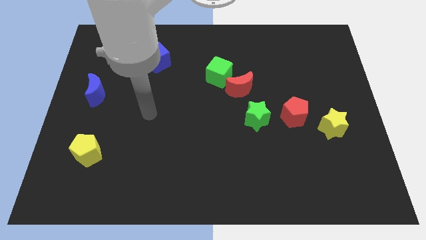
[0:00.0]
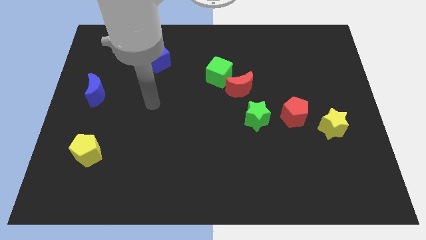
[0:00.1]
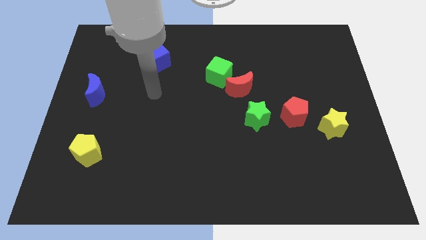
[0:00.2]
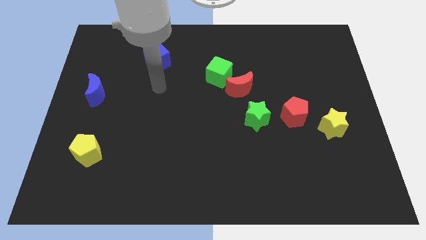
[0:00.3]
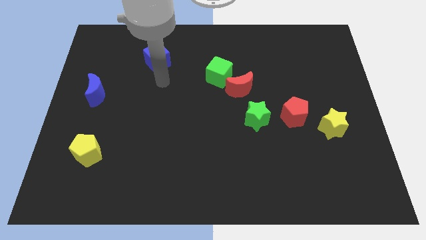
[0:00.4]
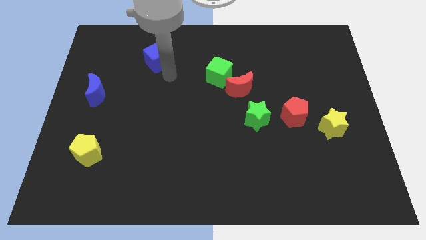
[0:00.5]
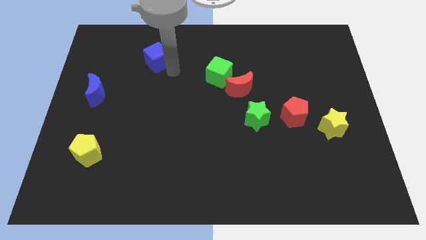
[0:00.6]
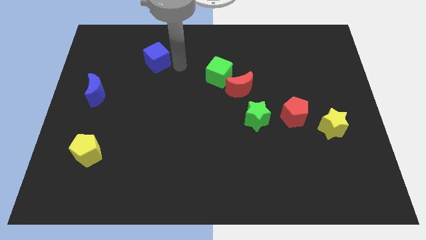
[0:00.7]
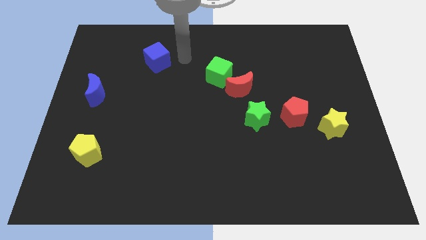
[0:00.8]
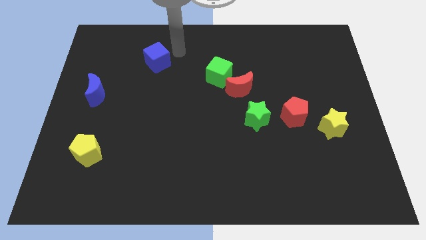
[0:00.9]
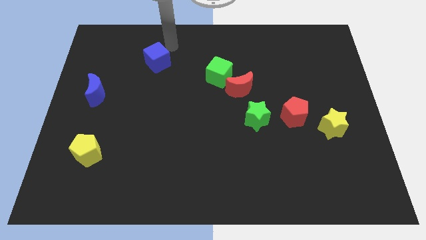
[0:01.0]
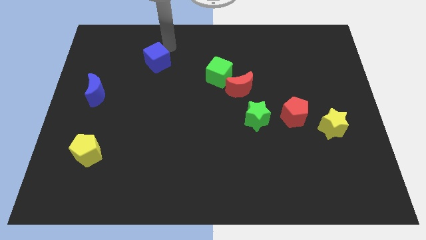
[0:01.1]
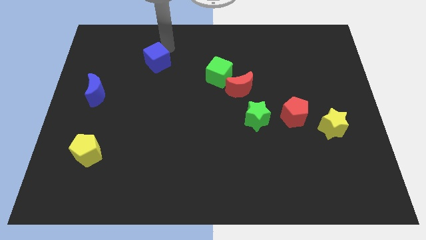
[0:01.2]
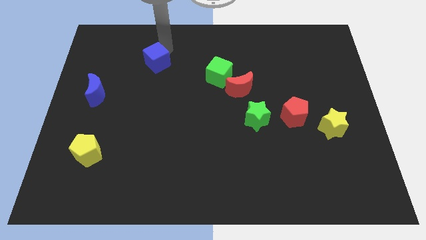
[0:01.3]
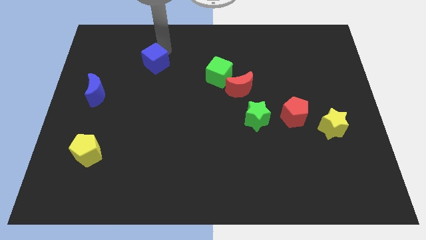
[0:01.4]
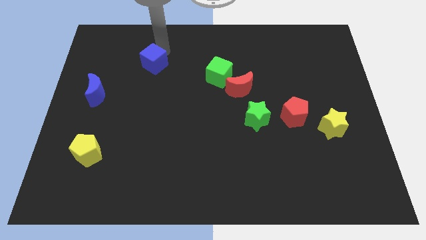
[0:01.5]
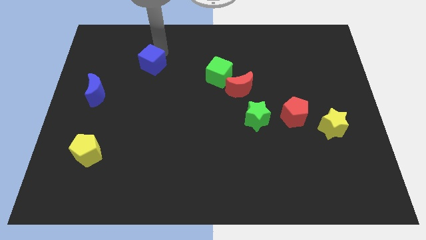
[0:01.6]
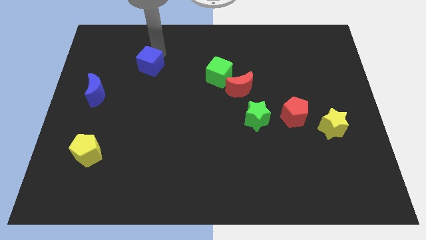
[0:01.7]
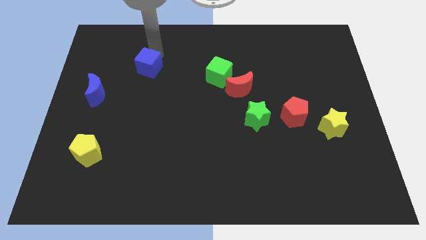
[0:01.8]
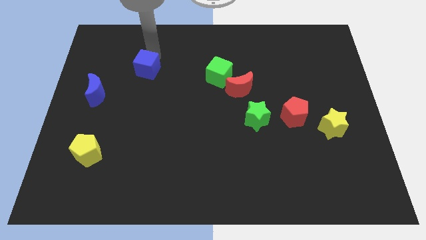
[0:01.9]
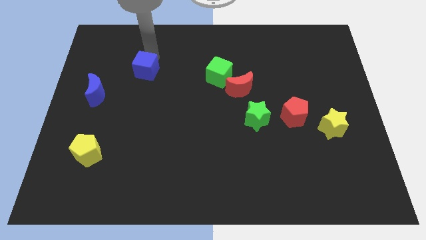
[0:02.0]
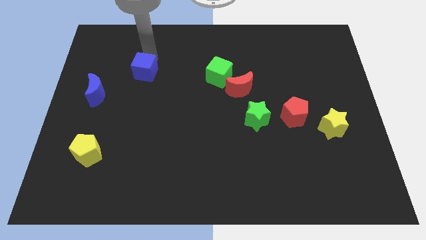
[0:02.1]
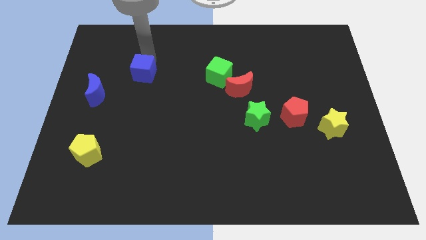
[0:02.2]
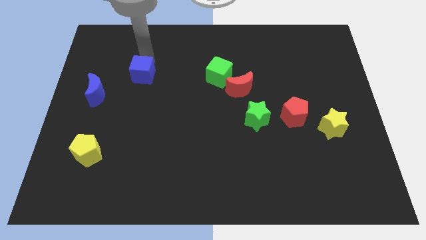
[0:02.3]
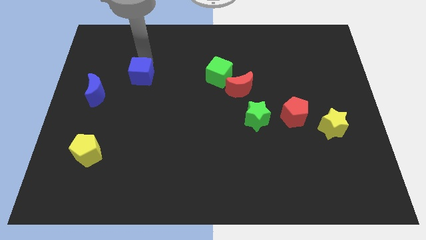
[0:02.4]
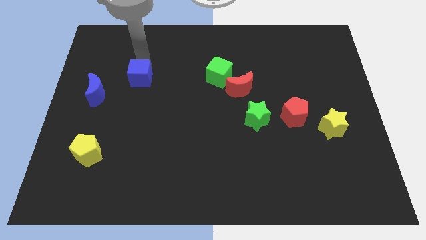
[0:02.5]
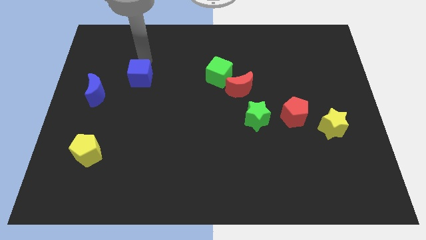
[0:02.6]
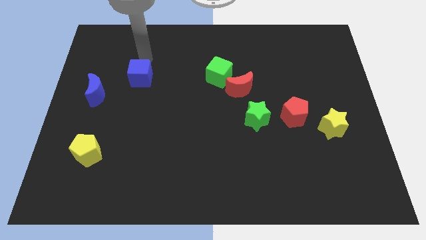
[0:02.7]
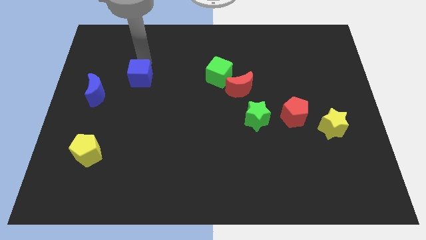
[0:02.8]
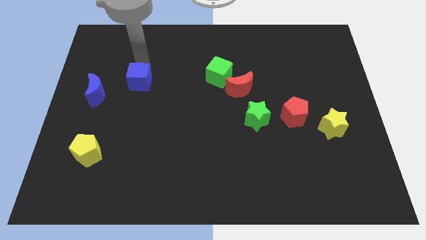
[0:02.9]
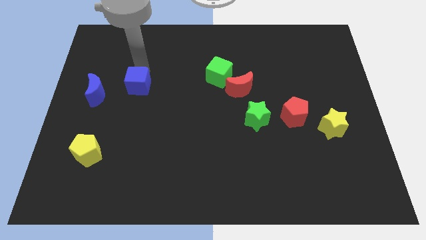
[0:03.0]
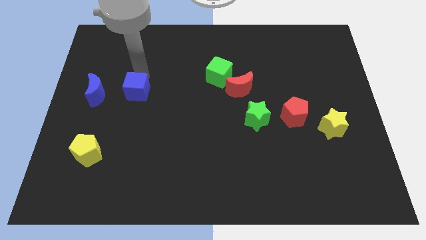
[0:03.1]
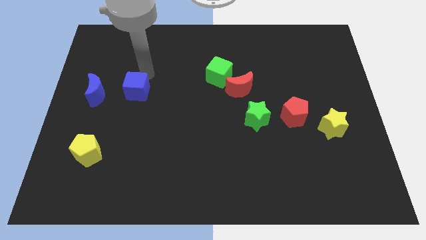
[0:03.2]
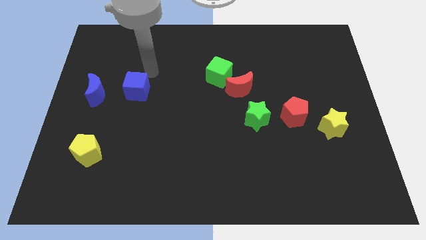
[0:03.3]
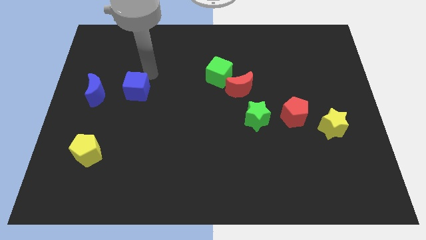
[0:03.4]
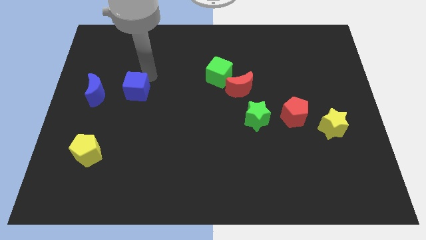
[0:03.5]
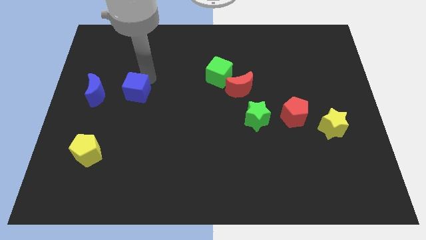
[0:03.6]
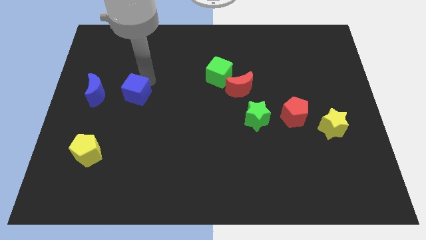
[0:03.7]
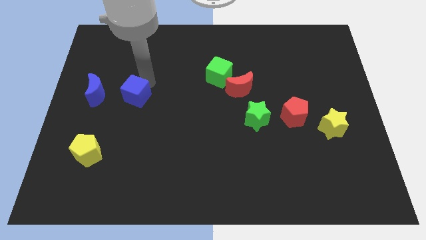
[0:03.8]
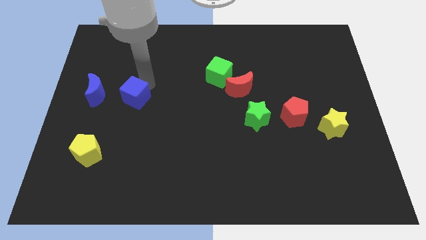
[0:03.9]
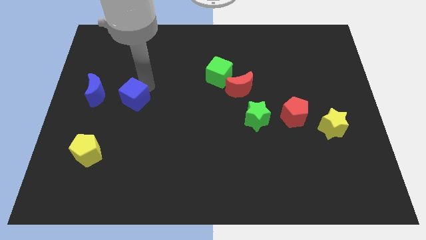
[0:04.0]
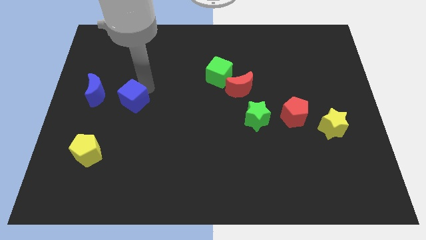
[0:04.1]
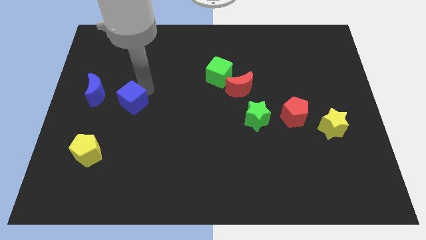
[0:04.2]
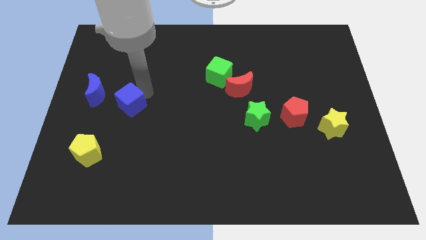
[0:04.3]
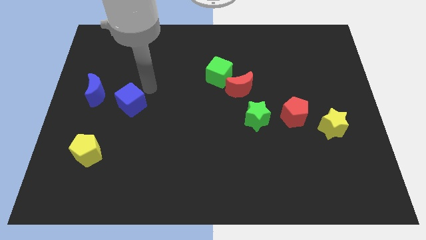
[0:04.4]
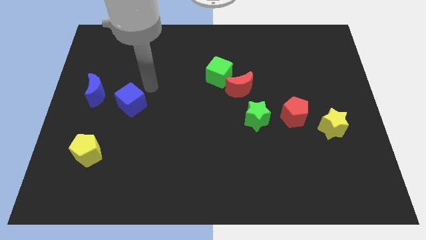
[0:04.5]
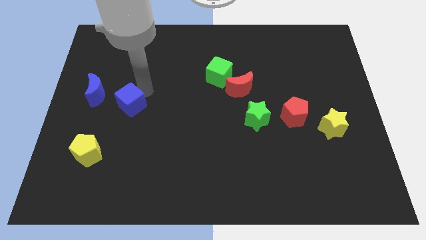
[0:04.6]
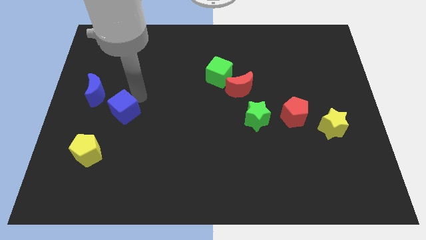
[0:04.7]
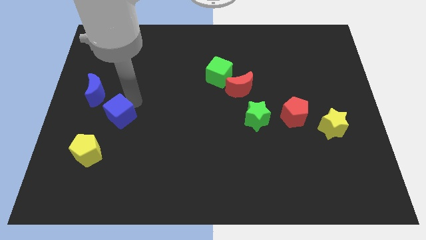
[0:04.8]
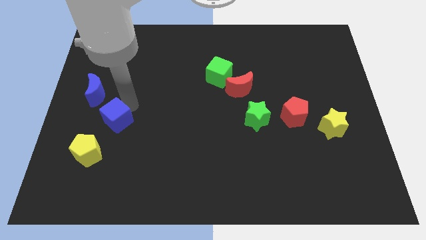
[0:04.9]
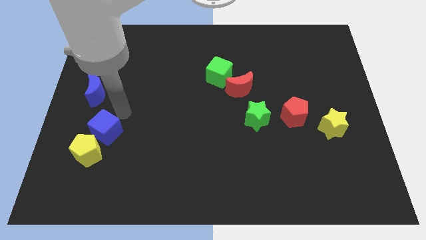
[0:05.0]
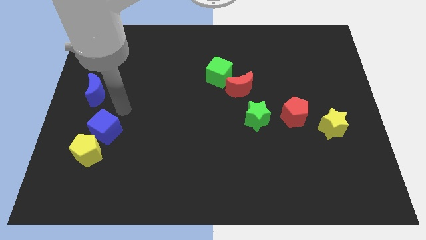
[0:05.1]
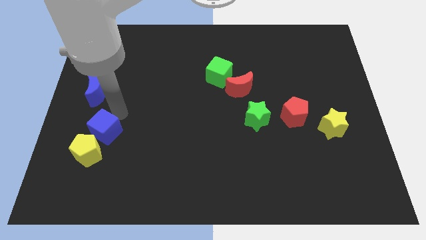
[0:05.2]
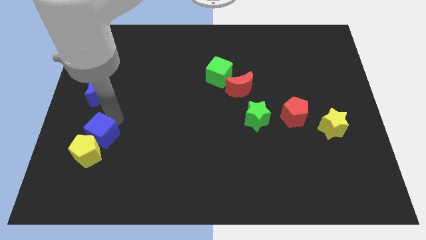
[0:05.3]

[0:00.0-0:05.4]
slide the blue cube next to the yellow pentagon

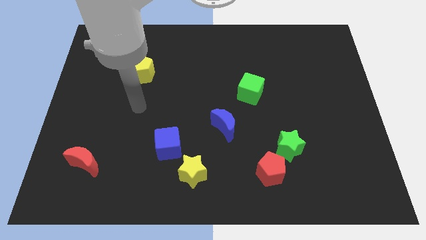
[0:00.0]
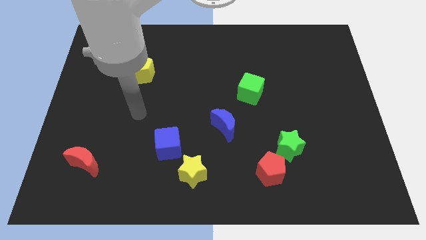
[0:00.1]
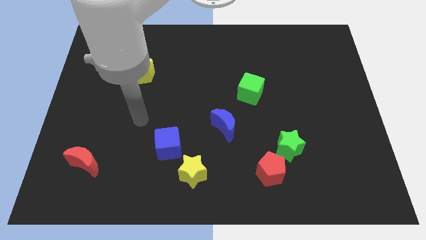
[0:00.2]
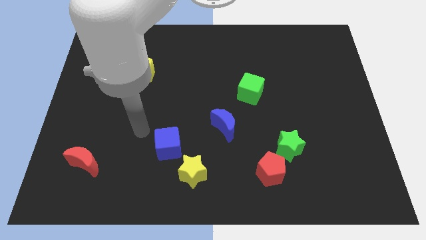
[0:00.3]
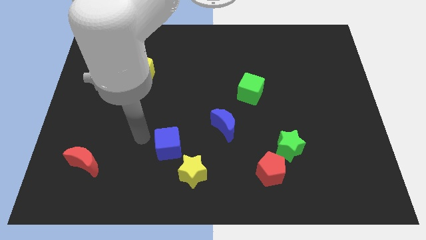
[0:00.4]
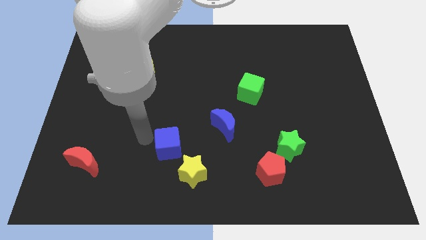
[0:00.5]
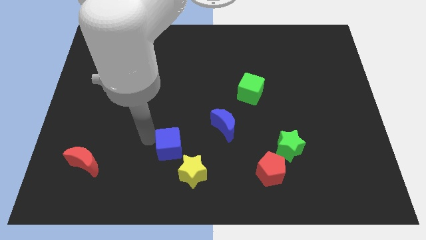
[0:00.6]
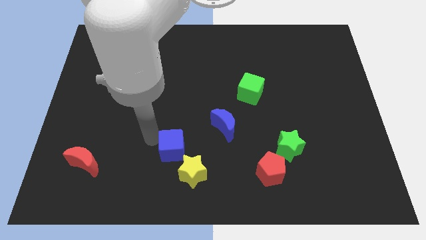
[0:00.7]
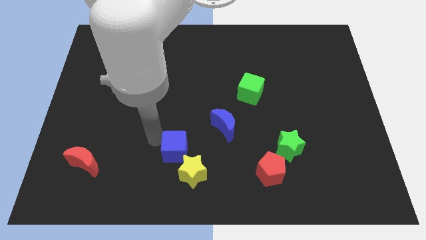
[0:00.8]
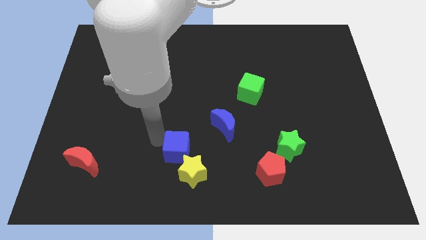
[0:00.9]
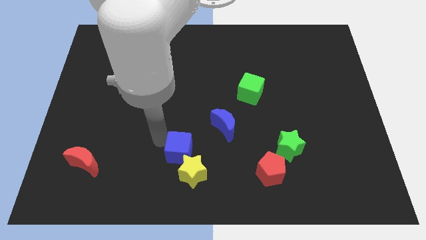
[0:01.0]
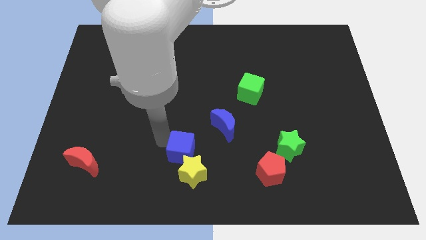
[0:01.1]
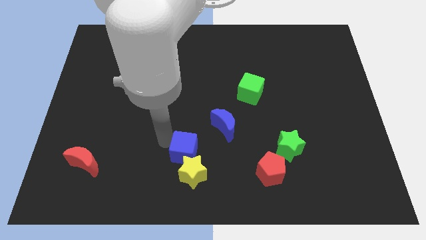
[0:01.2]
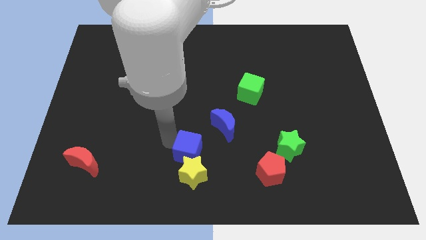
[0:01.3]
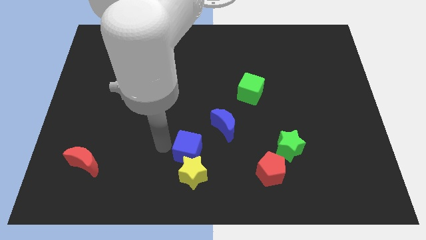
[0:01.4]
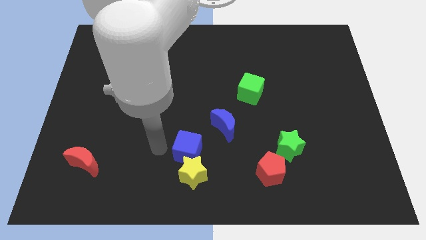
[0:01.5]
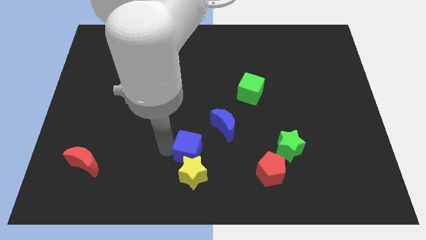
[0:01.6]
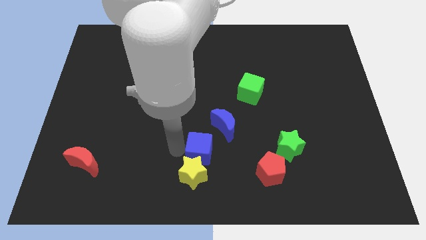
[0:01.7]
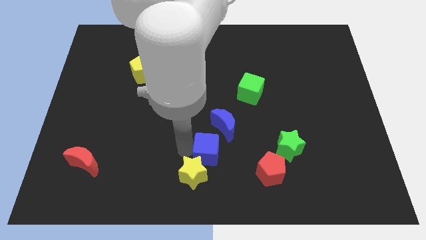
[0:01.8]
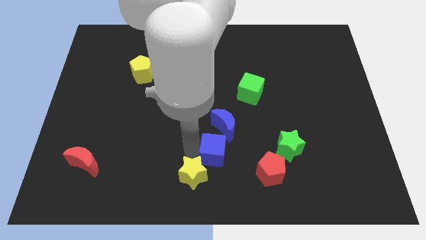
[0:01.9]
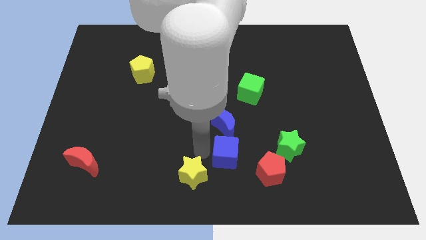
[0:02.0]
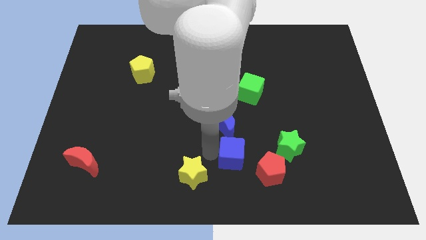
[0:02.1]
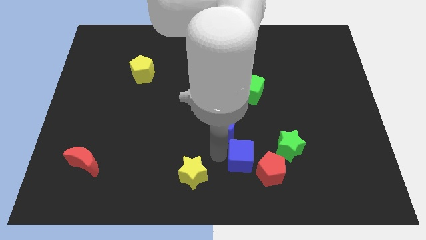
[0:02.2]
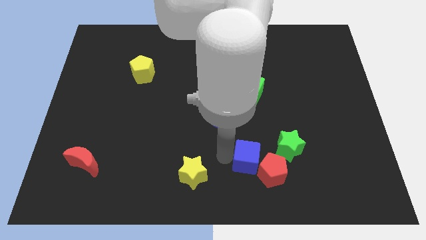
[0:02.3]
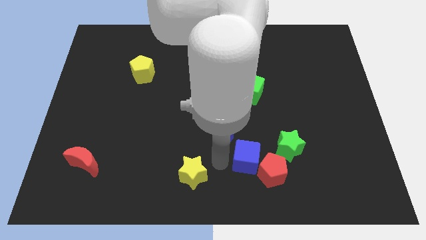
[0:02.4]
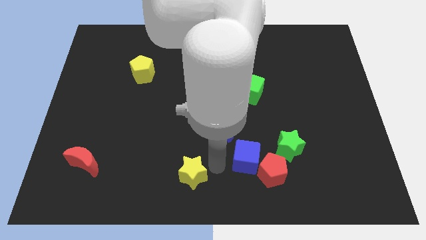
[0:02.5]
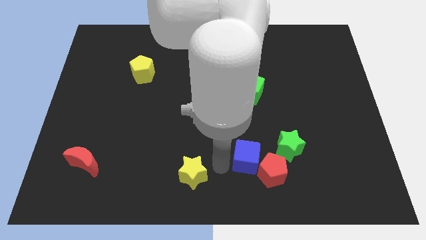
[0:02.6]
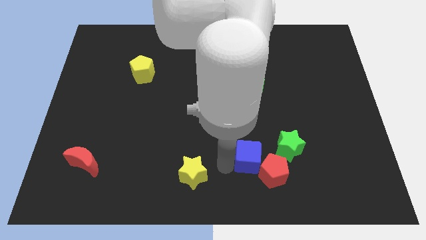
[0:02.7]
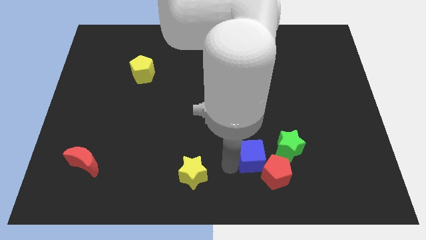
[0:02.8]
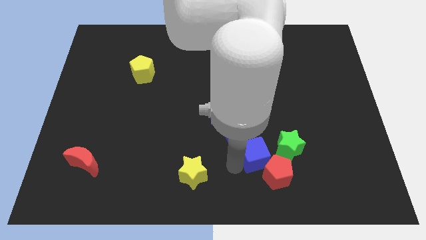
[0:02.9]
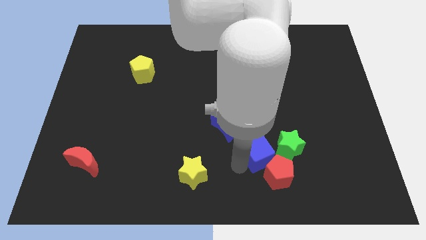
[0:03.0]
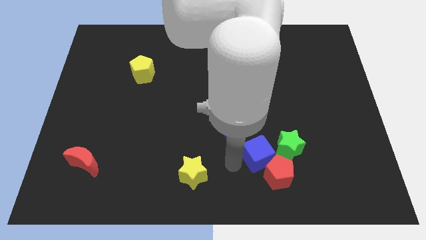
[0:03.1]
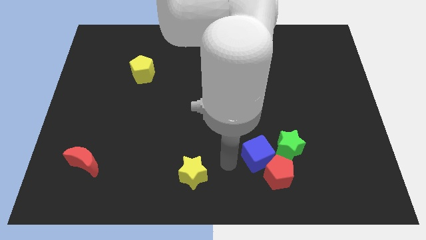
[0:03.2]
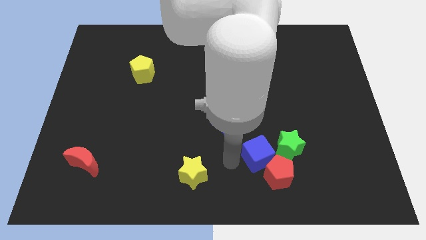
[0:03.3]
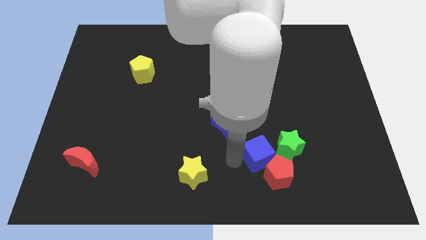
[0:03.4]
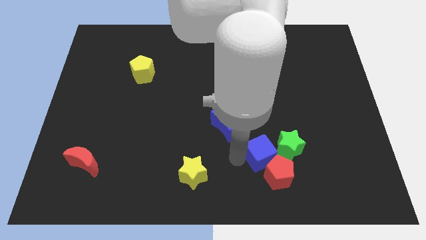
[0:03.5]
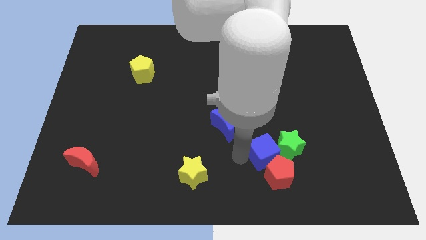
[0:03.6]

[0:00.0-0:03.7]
slide the blue cube next to the green star
